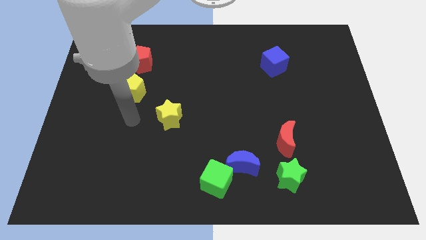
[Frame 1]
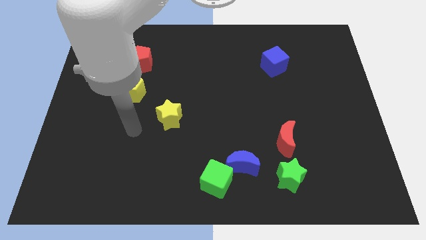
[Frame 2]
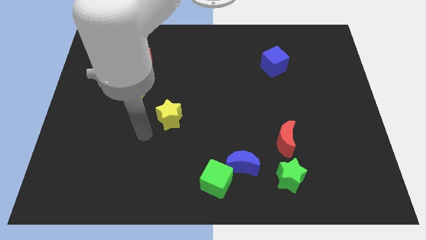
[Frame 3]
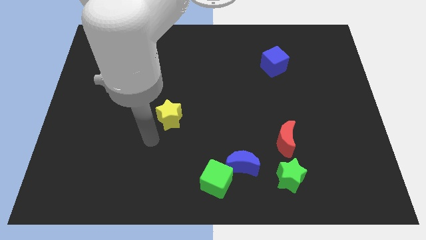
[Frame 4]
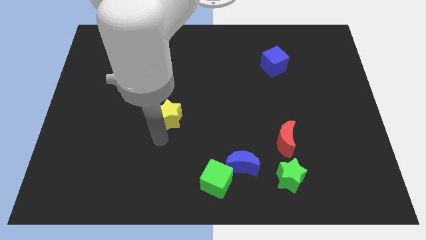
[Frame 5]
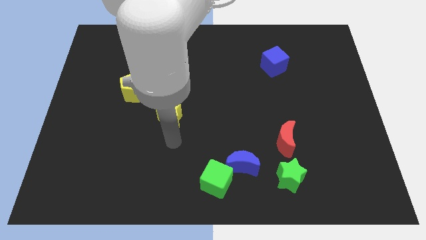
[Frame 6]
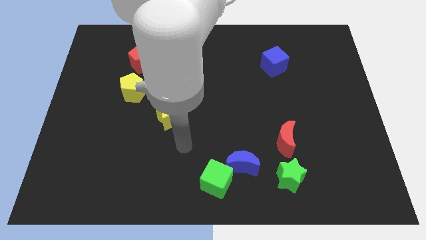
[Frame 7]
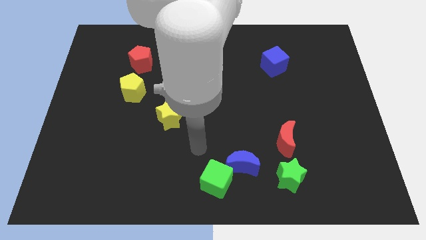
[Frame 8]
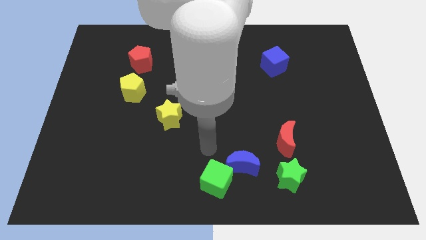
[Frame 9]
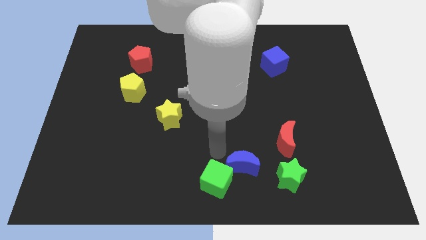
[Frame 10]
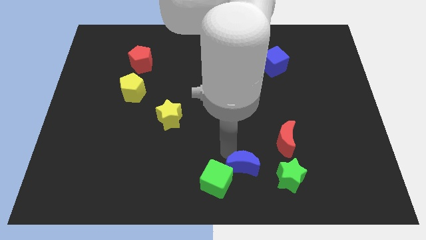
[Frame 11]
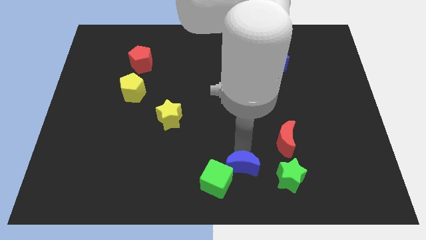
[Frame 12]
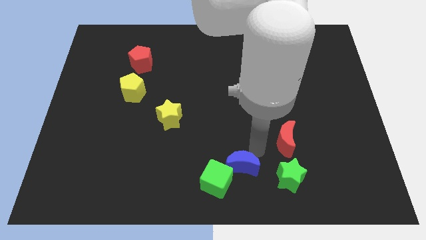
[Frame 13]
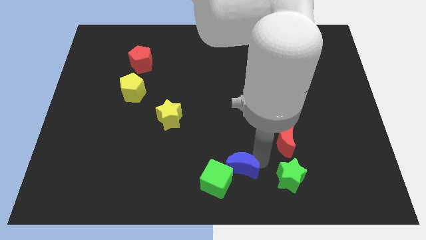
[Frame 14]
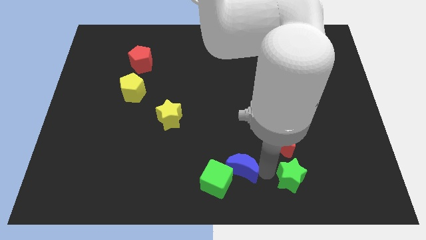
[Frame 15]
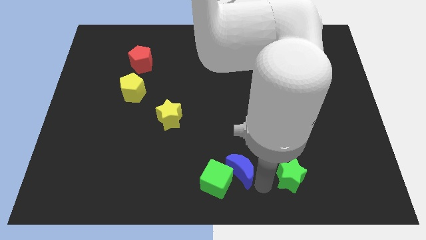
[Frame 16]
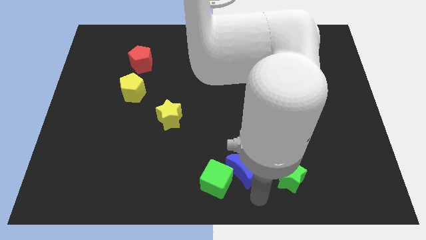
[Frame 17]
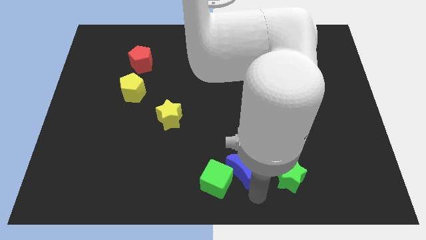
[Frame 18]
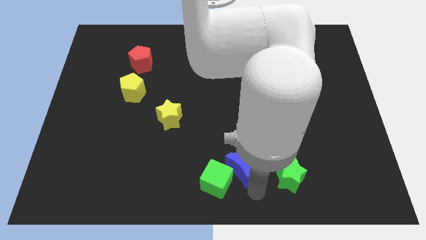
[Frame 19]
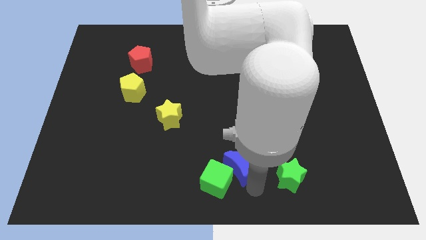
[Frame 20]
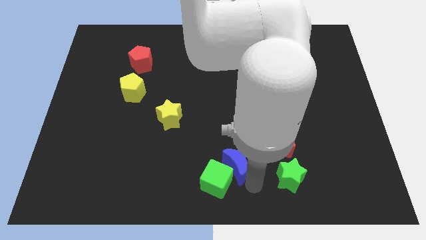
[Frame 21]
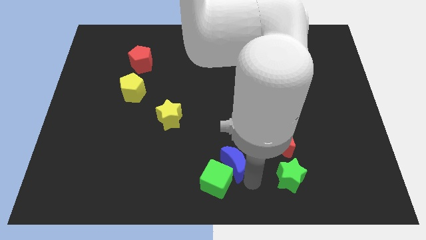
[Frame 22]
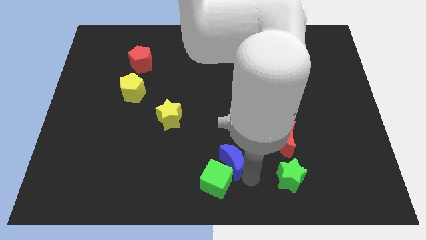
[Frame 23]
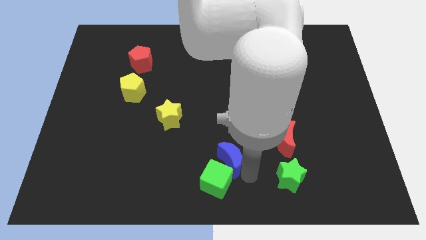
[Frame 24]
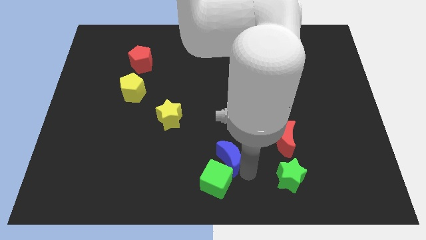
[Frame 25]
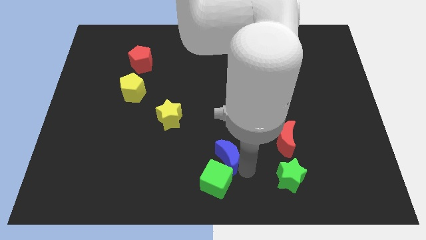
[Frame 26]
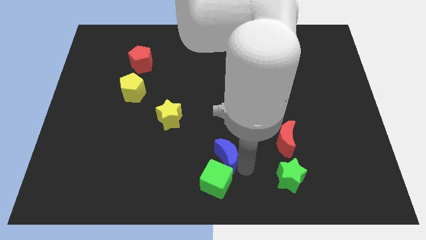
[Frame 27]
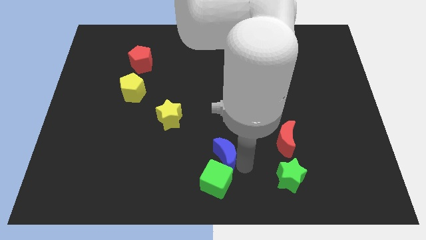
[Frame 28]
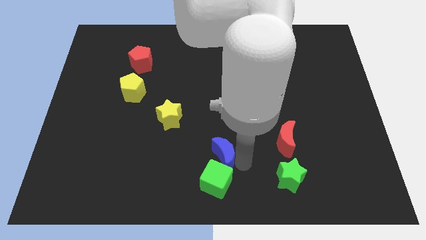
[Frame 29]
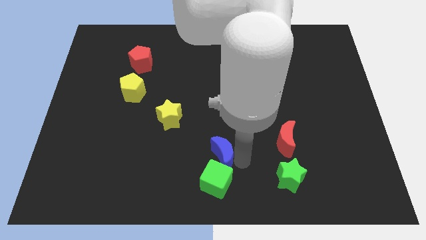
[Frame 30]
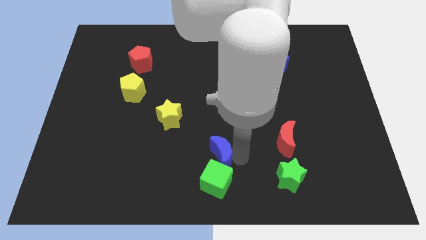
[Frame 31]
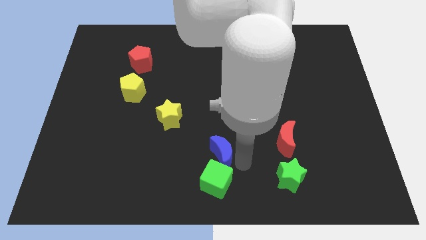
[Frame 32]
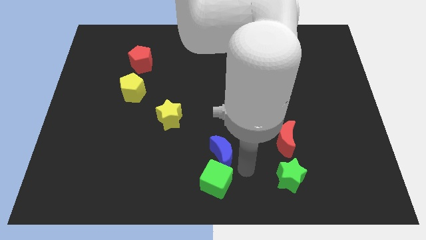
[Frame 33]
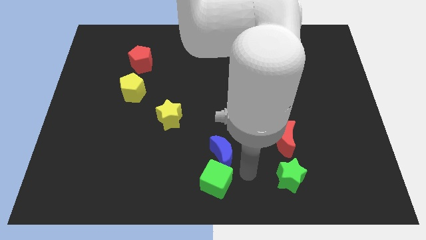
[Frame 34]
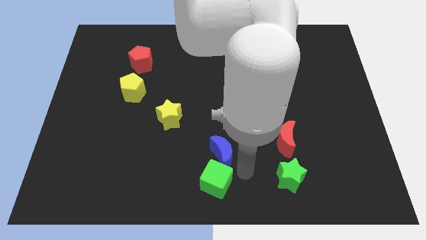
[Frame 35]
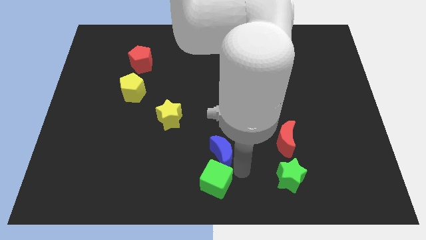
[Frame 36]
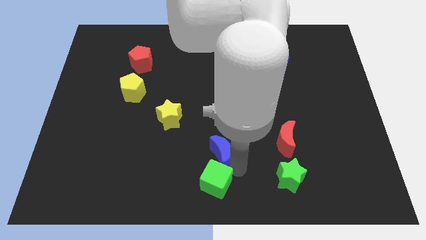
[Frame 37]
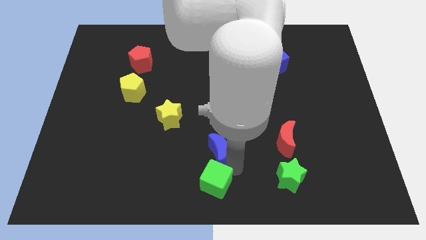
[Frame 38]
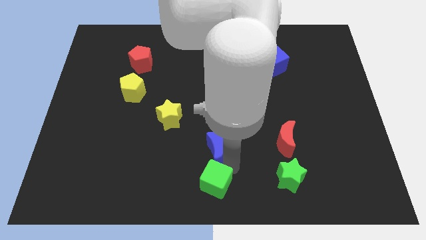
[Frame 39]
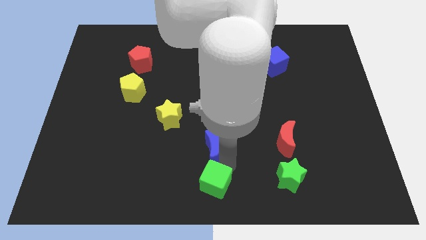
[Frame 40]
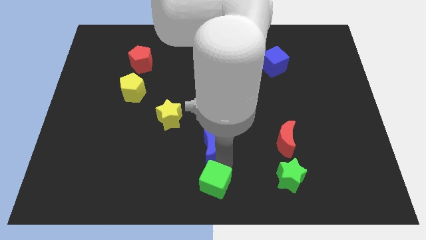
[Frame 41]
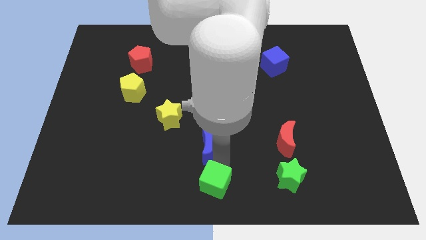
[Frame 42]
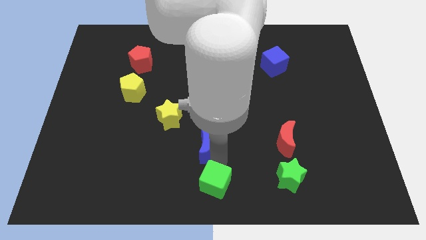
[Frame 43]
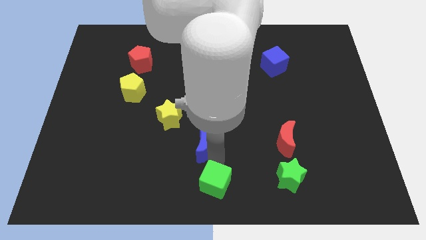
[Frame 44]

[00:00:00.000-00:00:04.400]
slightly move the blue moon to the left

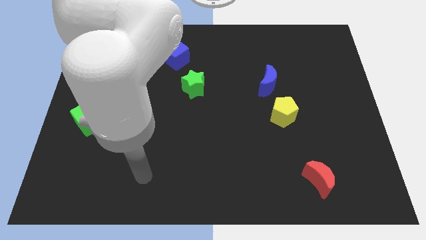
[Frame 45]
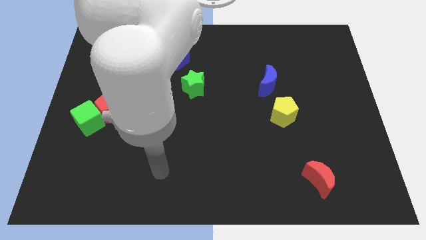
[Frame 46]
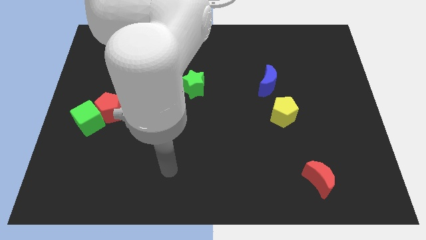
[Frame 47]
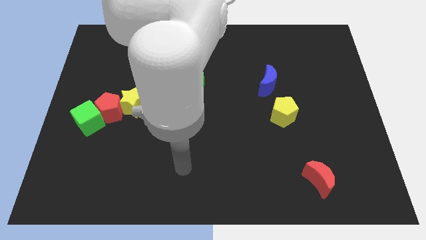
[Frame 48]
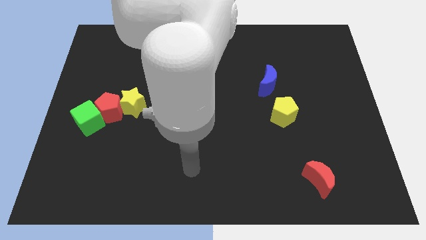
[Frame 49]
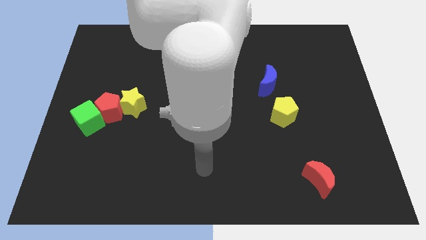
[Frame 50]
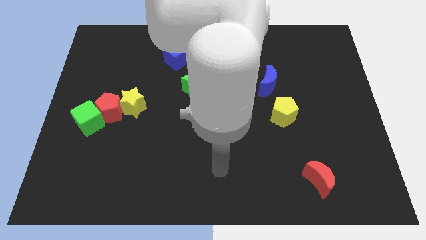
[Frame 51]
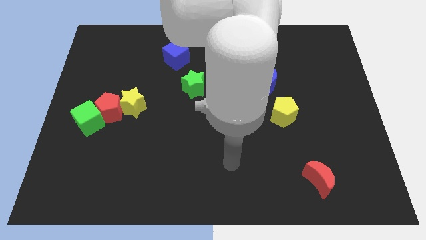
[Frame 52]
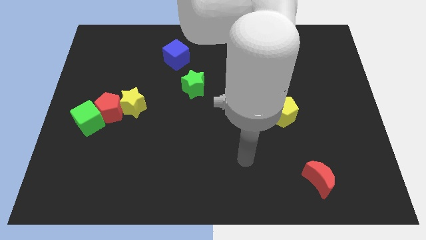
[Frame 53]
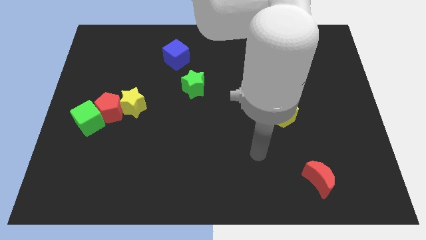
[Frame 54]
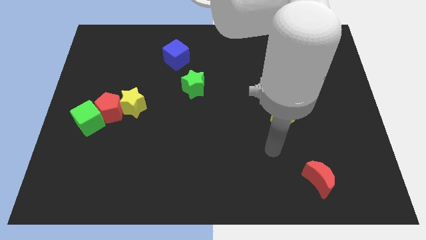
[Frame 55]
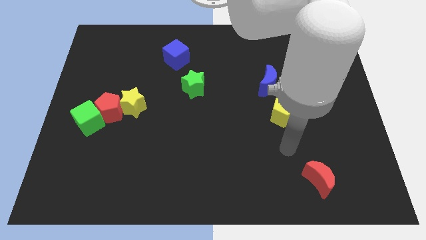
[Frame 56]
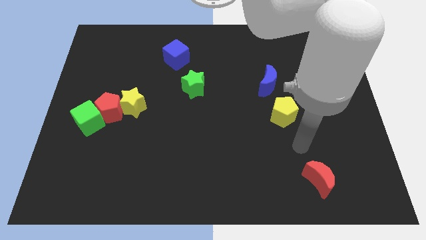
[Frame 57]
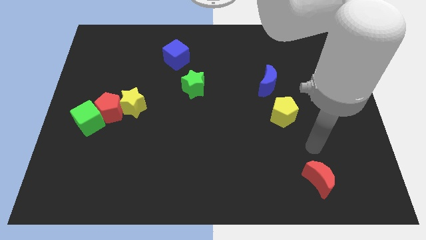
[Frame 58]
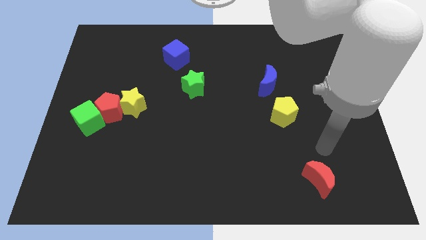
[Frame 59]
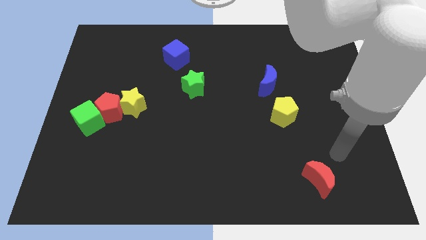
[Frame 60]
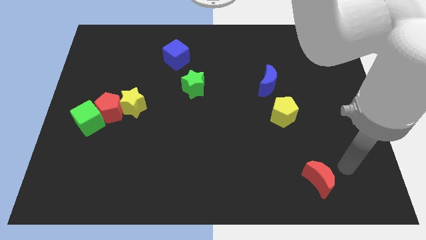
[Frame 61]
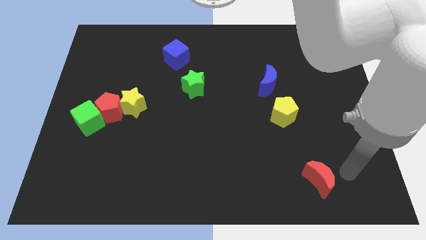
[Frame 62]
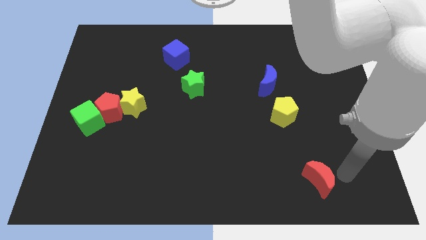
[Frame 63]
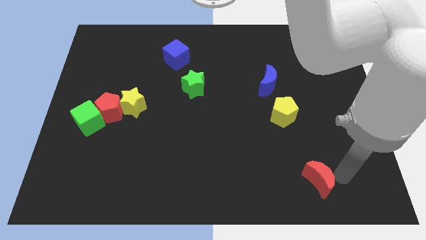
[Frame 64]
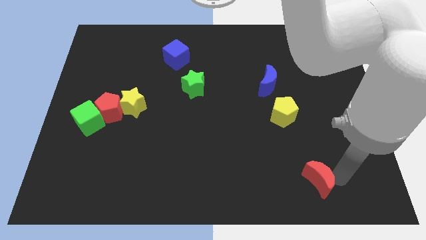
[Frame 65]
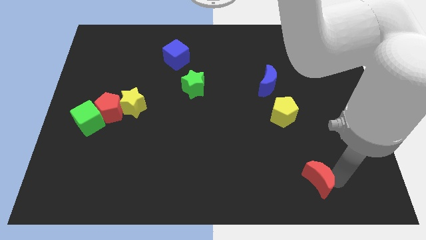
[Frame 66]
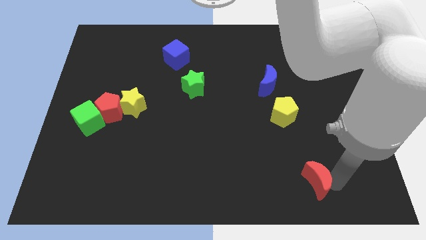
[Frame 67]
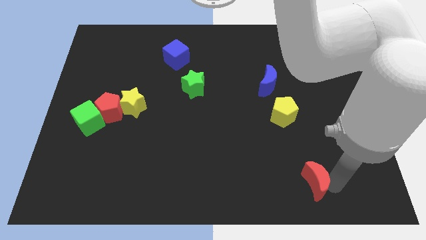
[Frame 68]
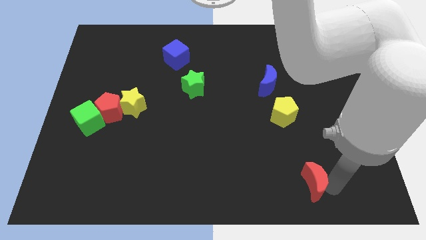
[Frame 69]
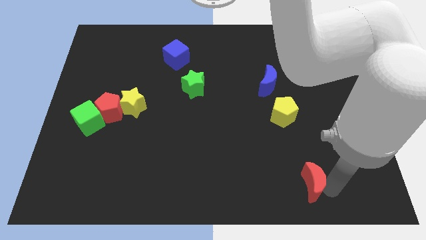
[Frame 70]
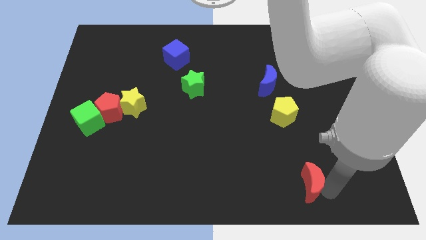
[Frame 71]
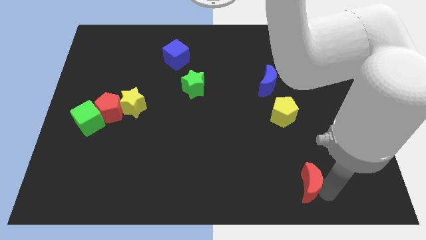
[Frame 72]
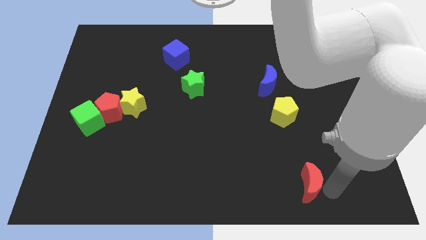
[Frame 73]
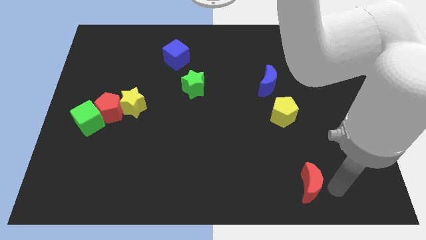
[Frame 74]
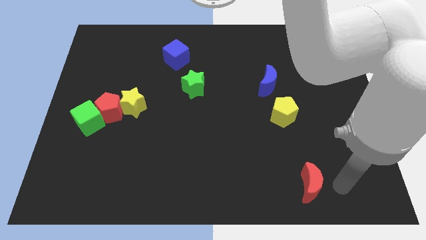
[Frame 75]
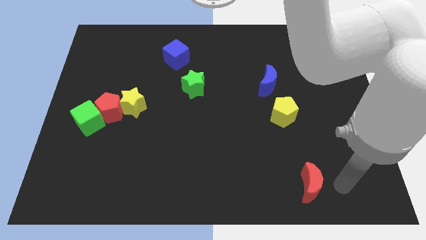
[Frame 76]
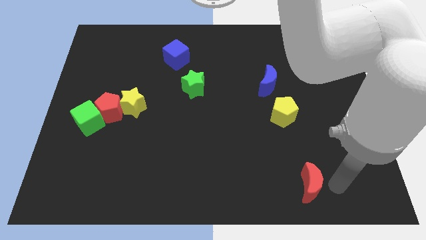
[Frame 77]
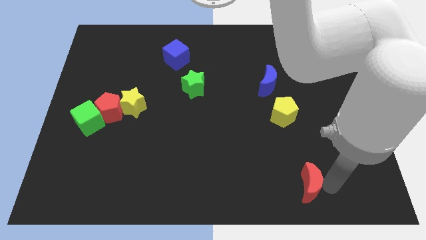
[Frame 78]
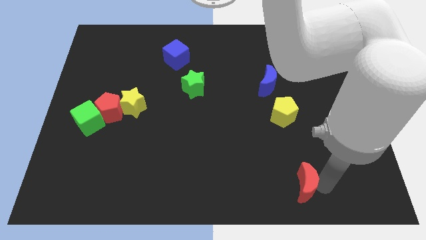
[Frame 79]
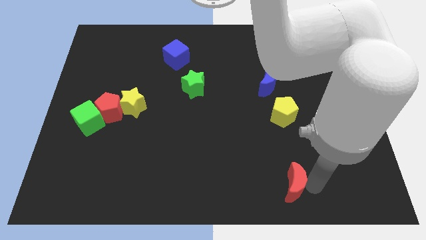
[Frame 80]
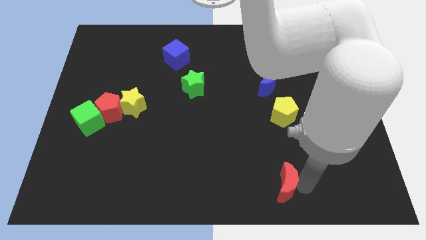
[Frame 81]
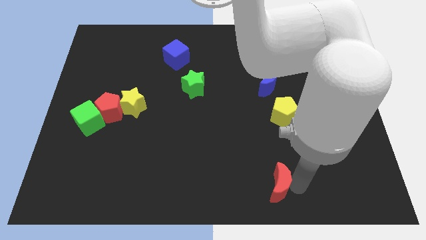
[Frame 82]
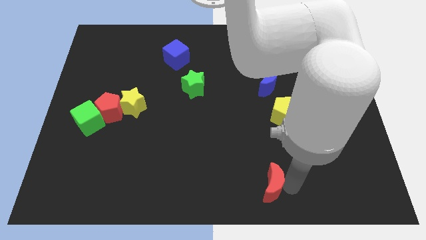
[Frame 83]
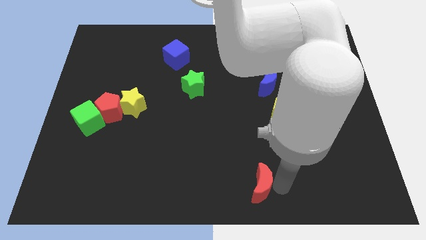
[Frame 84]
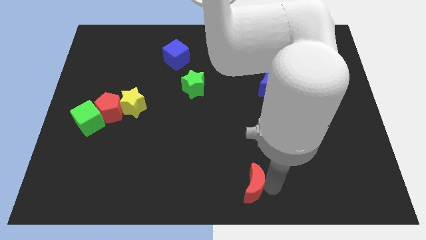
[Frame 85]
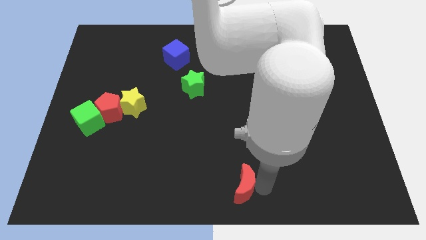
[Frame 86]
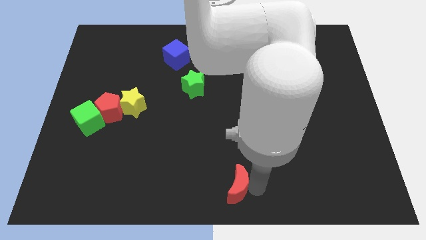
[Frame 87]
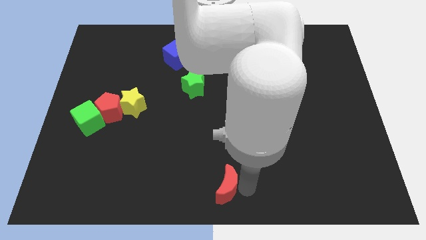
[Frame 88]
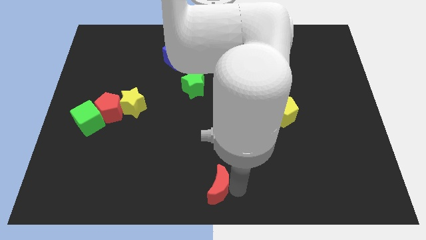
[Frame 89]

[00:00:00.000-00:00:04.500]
move the red moon to the left
